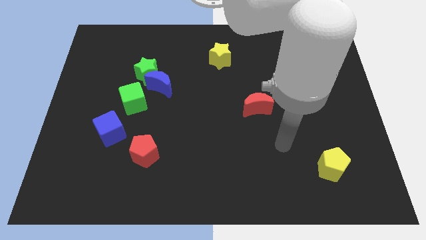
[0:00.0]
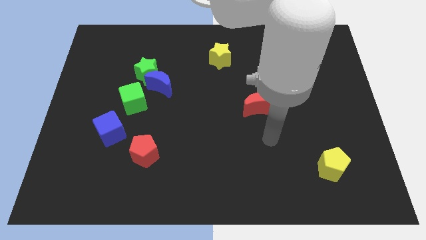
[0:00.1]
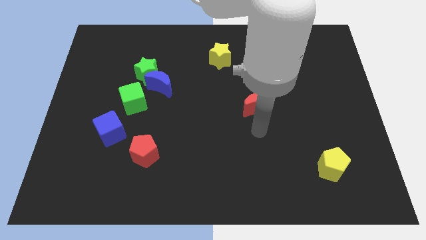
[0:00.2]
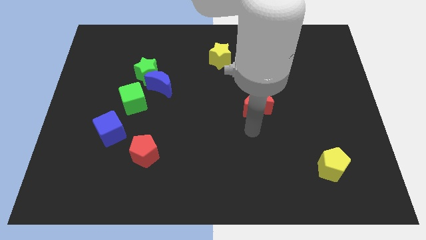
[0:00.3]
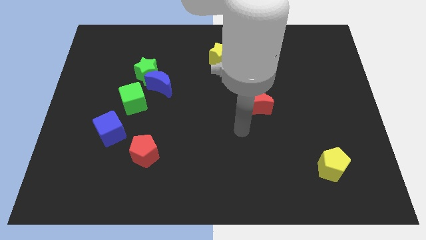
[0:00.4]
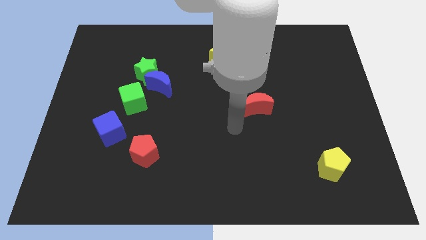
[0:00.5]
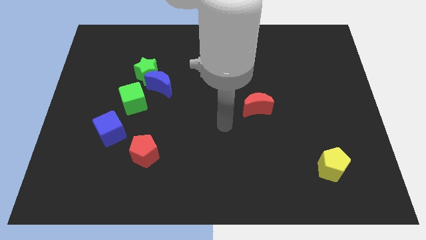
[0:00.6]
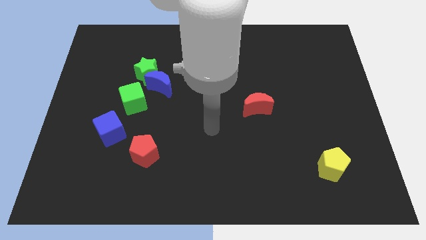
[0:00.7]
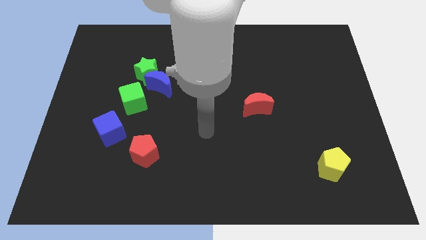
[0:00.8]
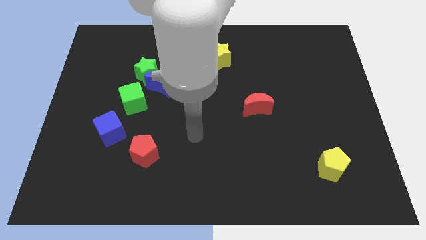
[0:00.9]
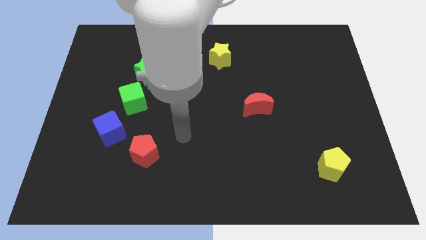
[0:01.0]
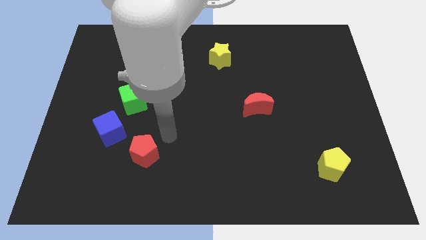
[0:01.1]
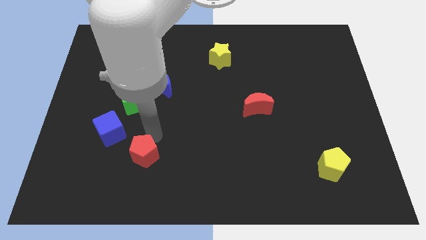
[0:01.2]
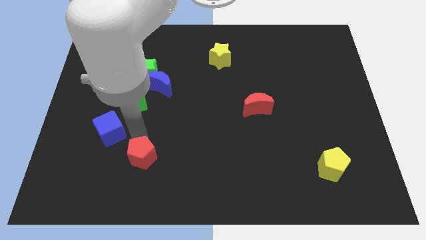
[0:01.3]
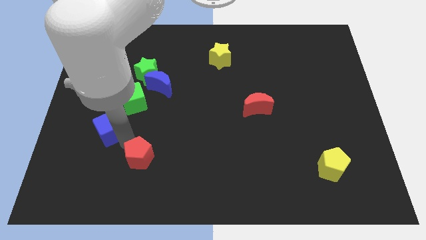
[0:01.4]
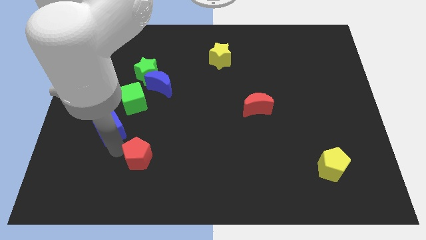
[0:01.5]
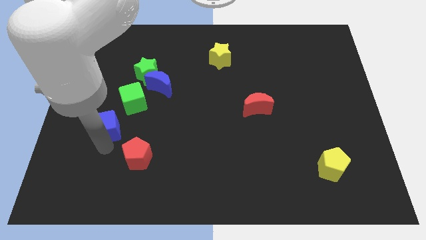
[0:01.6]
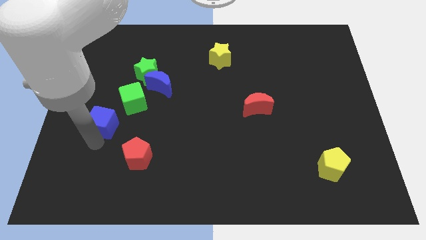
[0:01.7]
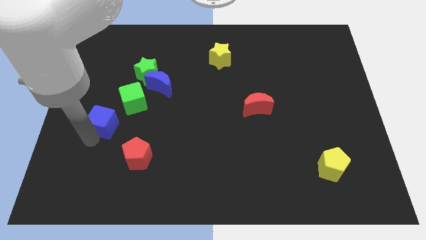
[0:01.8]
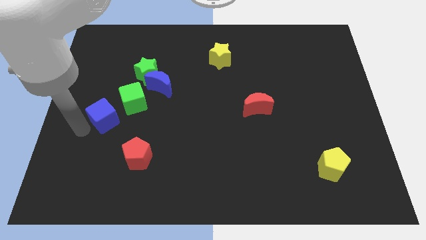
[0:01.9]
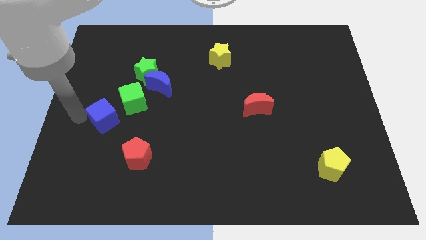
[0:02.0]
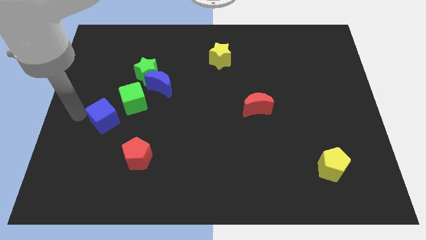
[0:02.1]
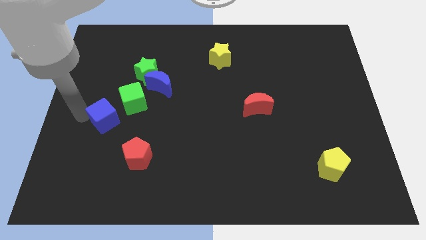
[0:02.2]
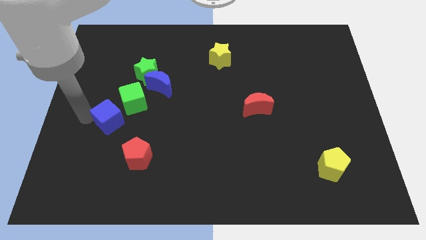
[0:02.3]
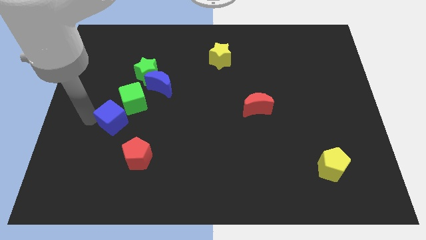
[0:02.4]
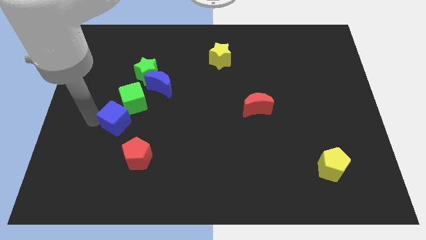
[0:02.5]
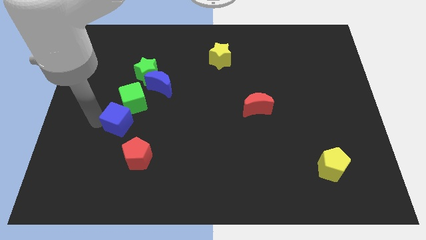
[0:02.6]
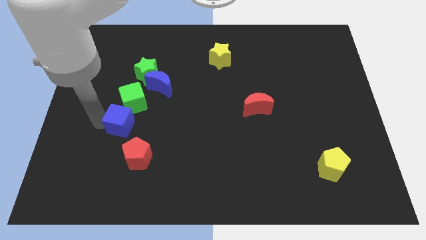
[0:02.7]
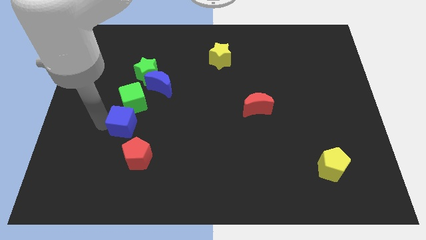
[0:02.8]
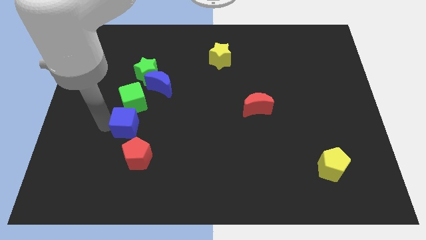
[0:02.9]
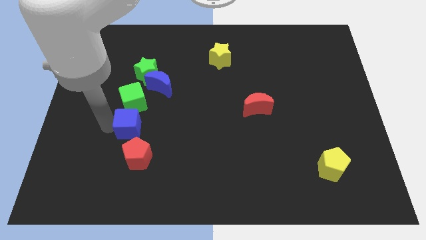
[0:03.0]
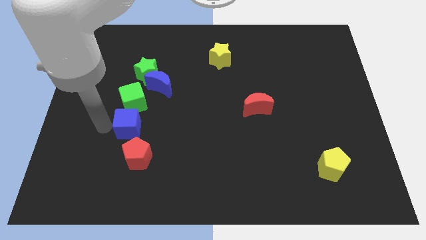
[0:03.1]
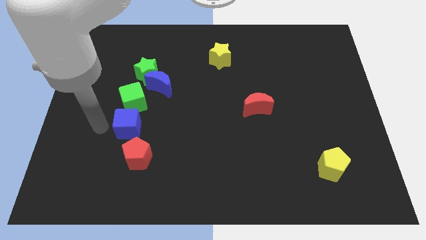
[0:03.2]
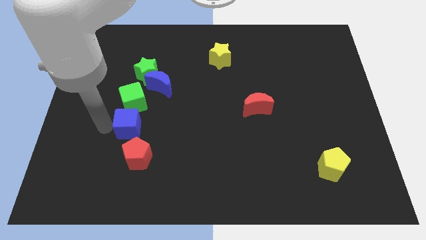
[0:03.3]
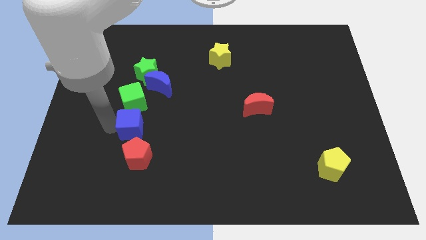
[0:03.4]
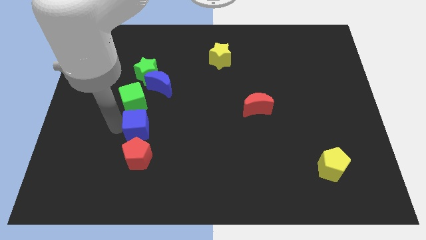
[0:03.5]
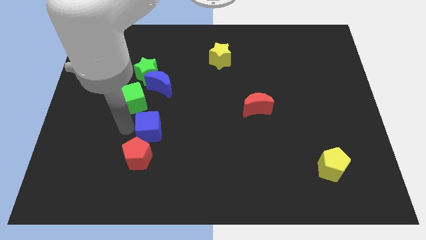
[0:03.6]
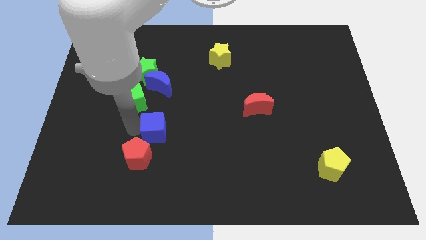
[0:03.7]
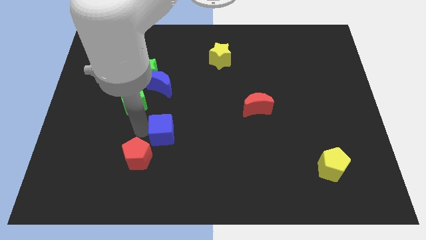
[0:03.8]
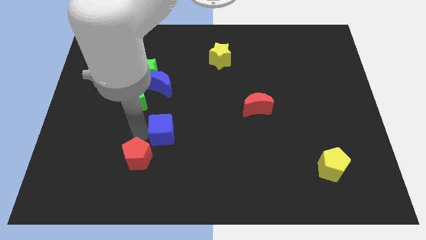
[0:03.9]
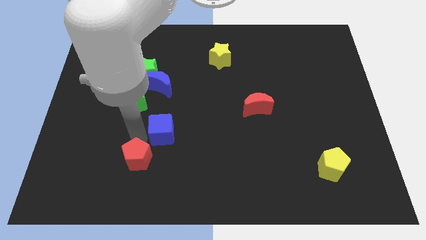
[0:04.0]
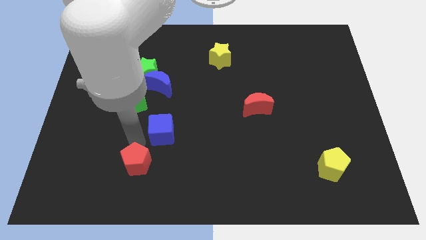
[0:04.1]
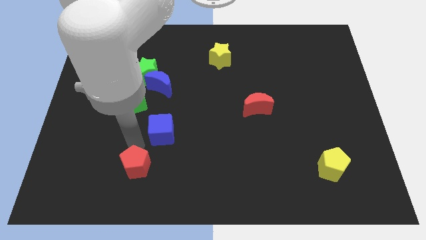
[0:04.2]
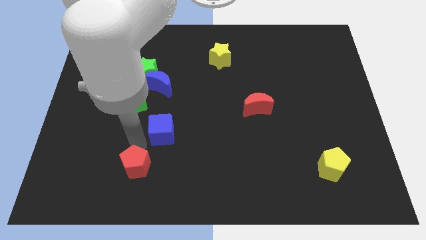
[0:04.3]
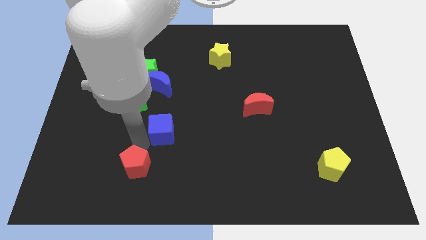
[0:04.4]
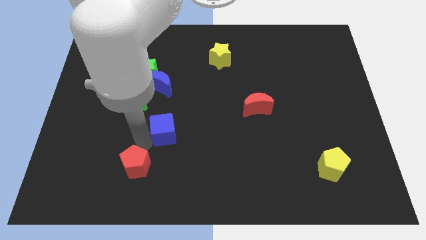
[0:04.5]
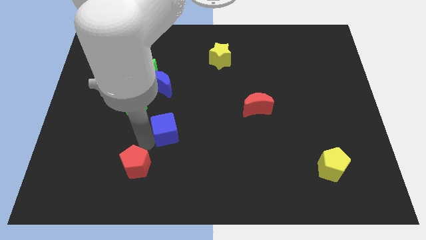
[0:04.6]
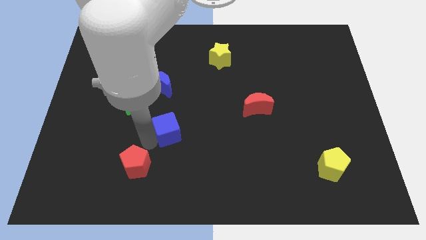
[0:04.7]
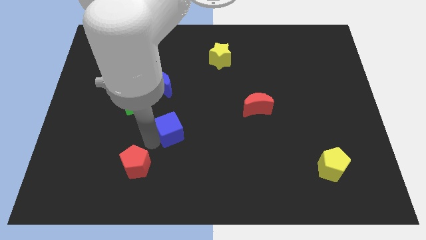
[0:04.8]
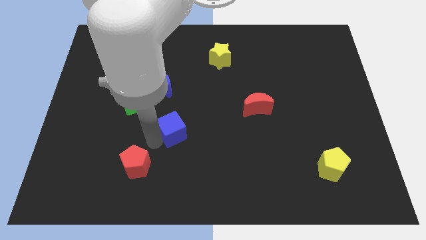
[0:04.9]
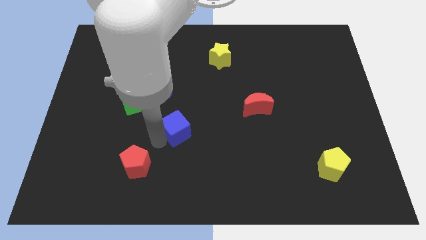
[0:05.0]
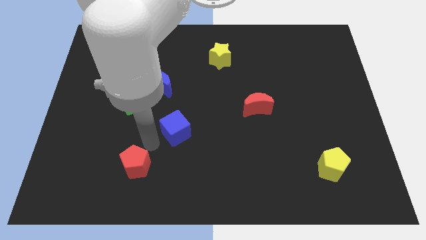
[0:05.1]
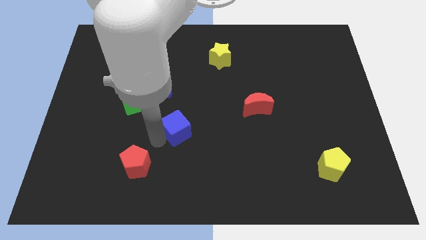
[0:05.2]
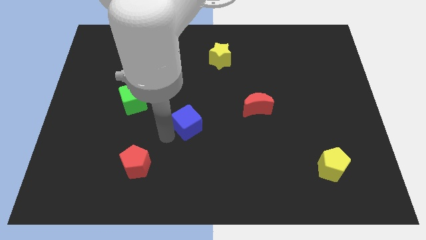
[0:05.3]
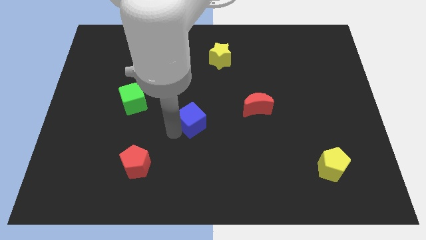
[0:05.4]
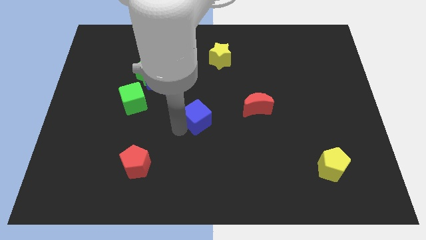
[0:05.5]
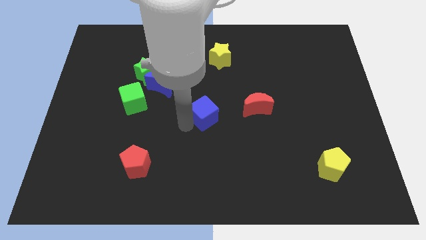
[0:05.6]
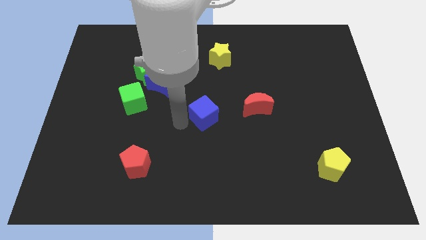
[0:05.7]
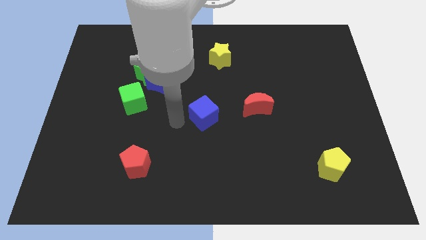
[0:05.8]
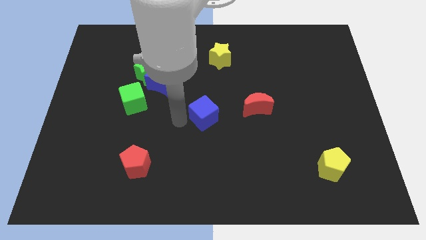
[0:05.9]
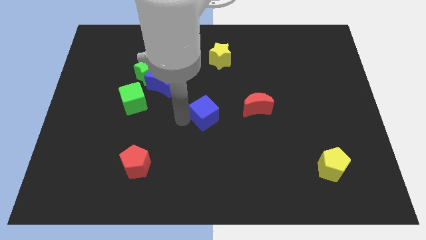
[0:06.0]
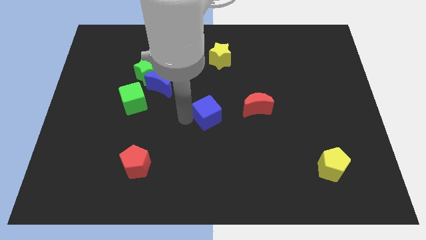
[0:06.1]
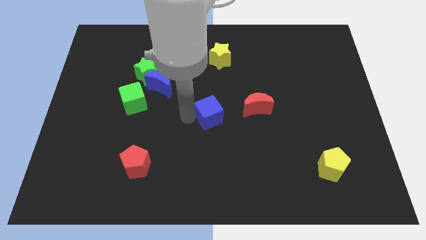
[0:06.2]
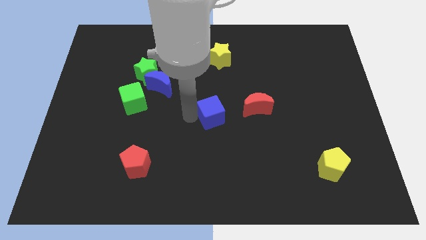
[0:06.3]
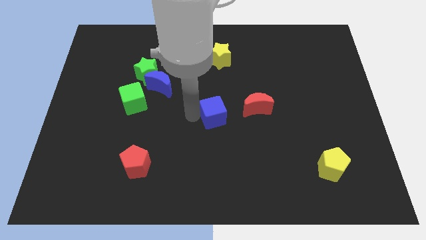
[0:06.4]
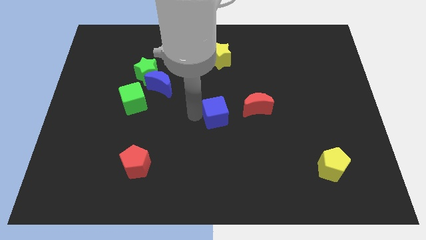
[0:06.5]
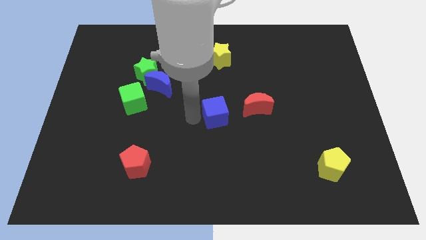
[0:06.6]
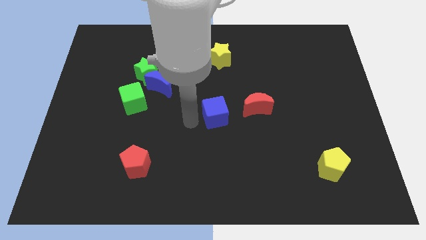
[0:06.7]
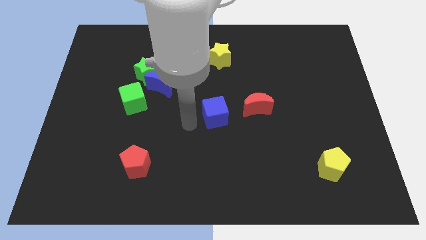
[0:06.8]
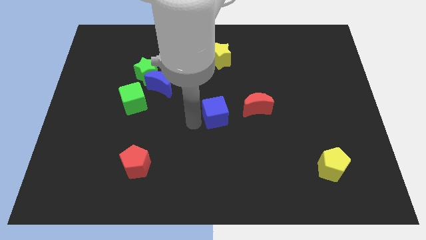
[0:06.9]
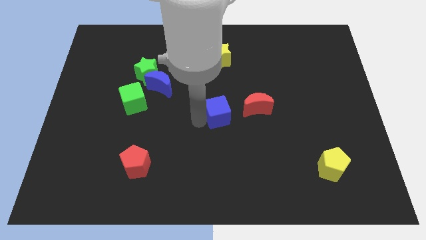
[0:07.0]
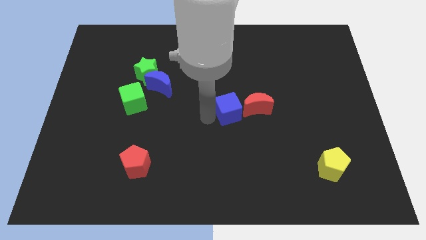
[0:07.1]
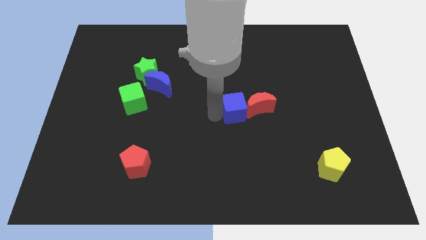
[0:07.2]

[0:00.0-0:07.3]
push the blue cube to the red moon

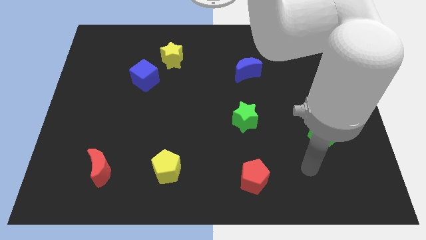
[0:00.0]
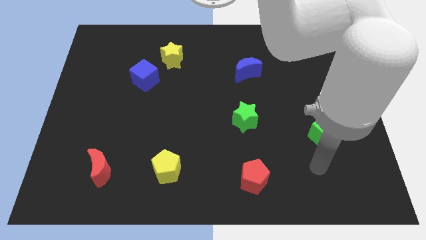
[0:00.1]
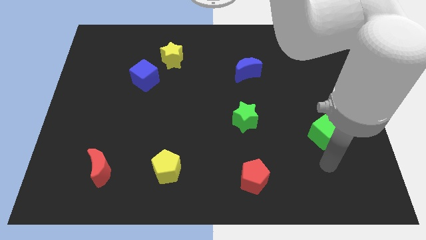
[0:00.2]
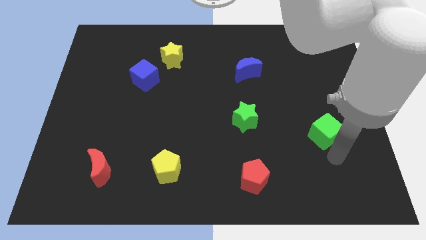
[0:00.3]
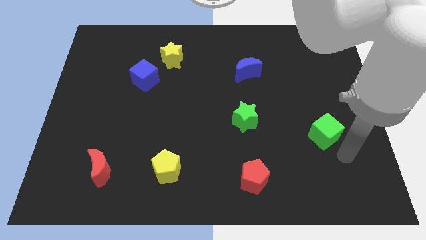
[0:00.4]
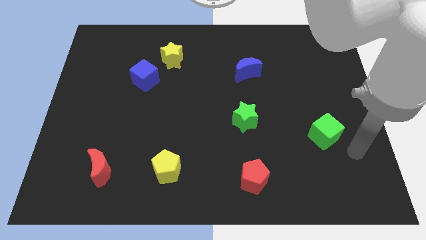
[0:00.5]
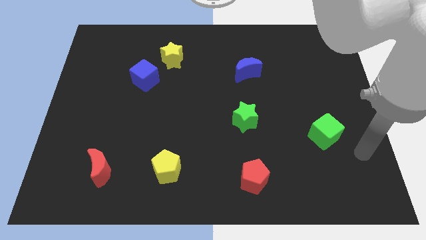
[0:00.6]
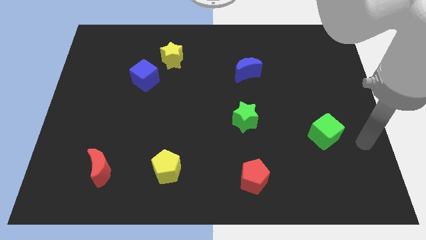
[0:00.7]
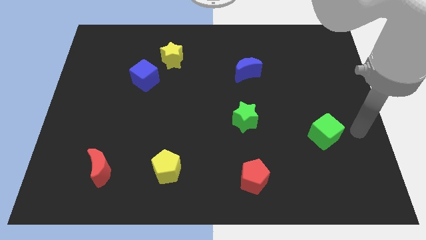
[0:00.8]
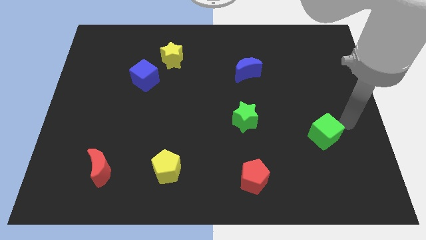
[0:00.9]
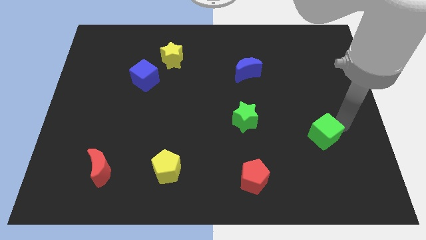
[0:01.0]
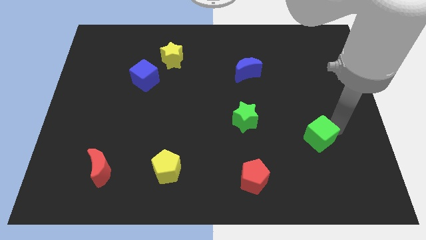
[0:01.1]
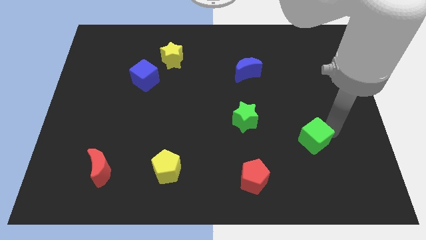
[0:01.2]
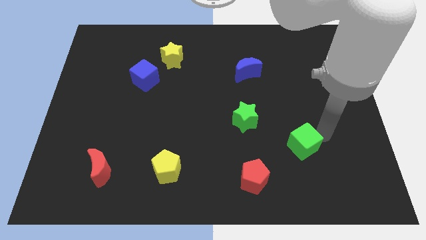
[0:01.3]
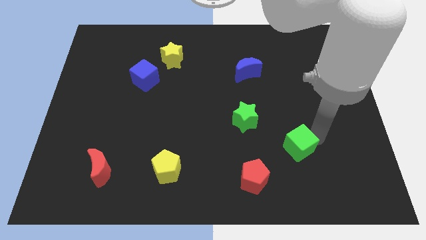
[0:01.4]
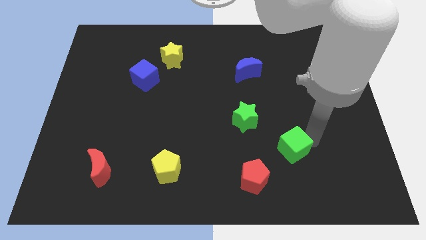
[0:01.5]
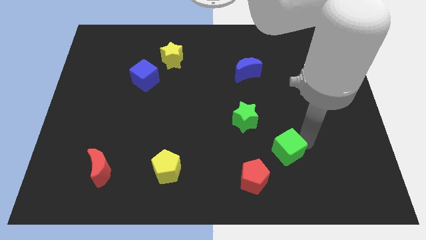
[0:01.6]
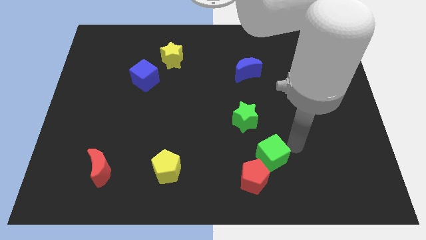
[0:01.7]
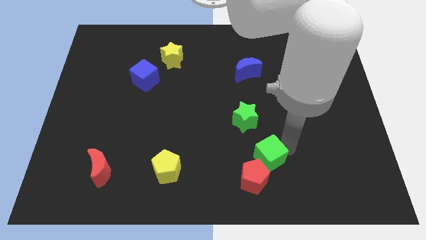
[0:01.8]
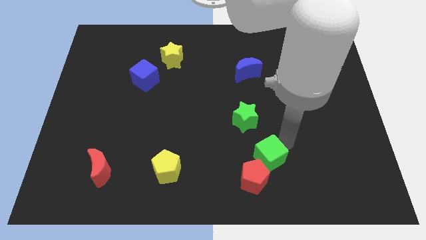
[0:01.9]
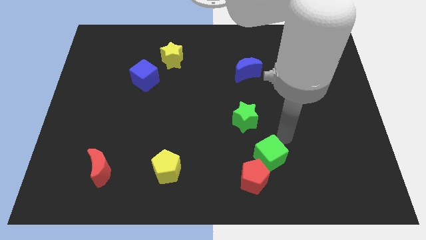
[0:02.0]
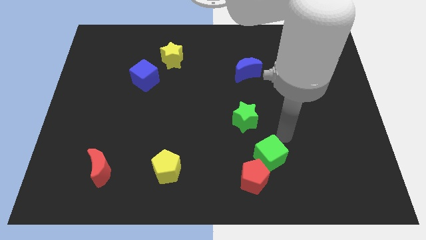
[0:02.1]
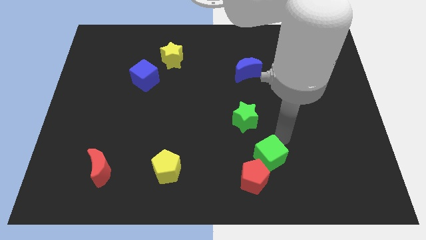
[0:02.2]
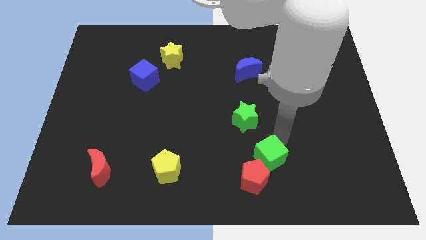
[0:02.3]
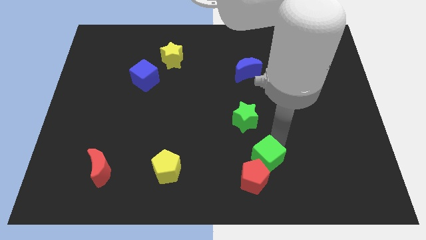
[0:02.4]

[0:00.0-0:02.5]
put the green cube close to the red pentagon
